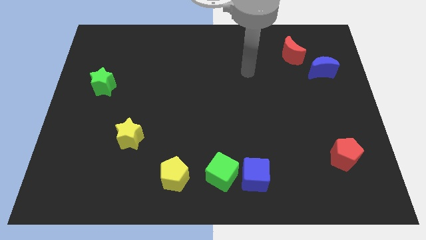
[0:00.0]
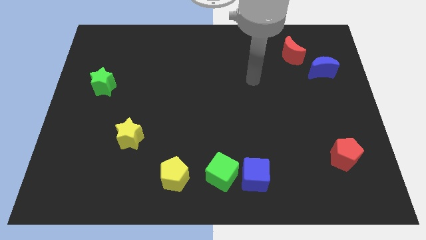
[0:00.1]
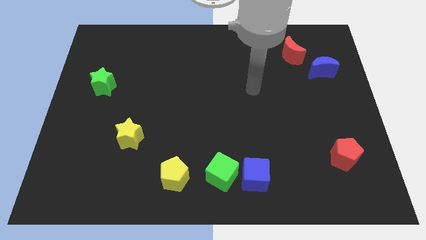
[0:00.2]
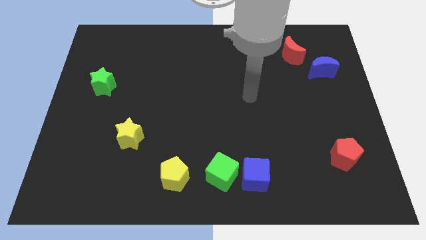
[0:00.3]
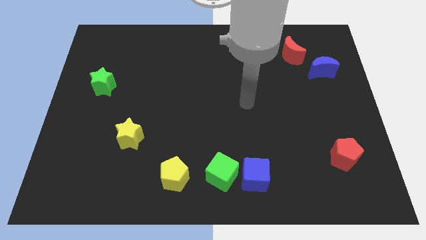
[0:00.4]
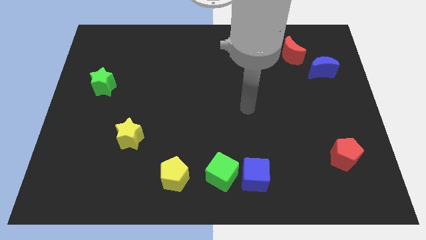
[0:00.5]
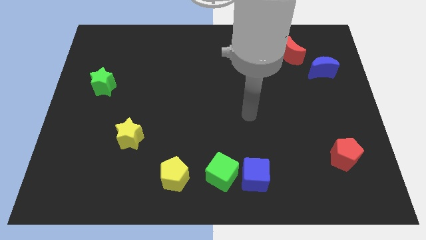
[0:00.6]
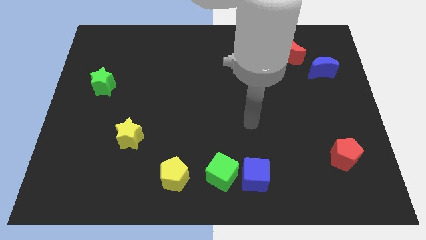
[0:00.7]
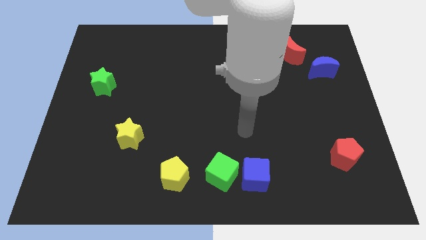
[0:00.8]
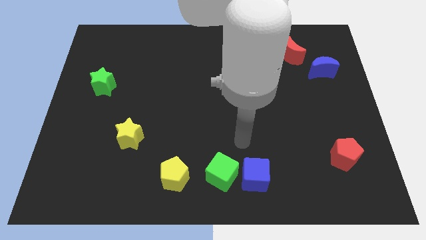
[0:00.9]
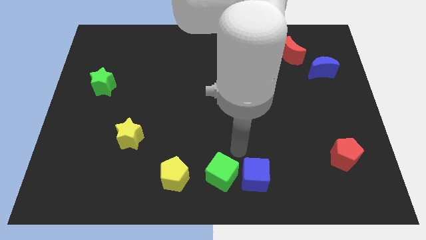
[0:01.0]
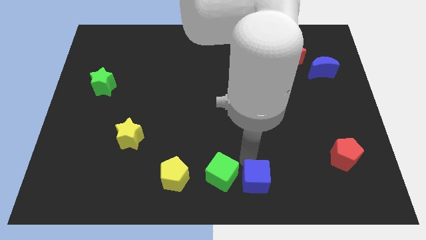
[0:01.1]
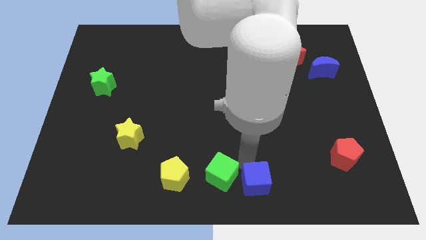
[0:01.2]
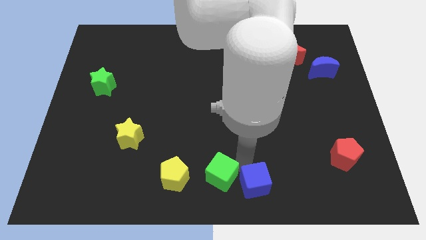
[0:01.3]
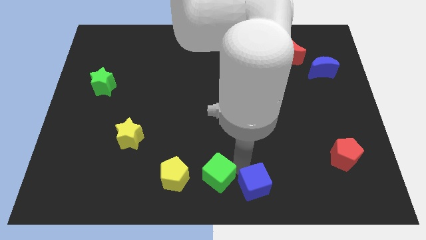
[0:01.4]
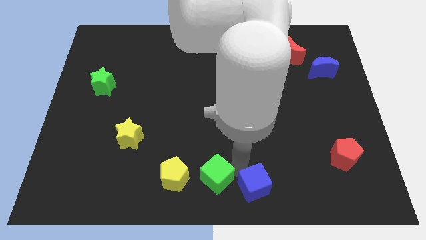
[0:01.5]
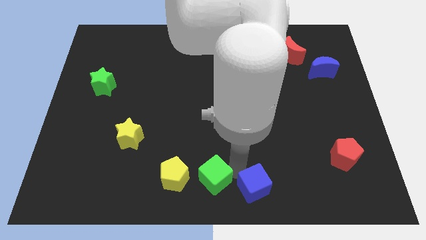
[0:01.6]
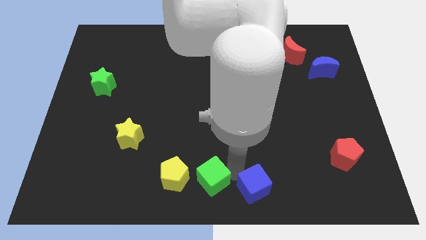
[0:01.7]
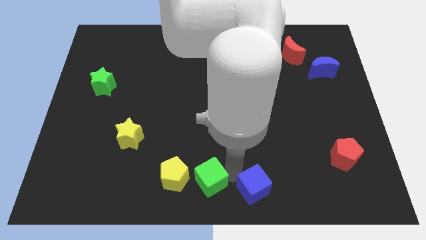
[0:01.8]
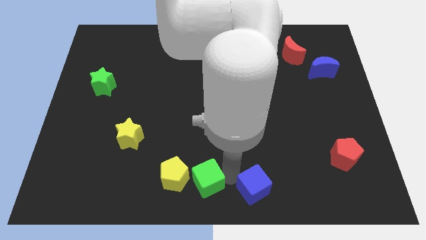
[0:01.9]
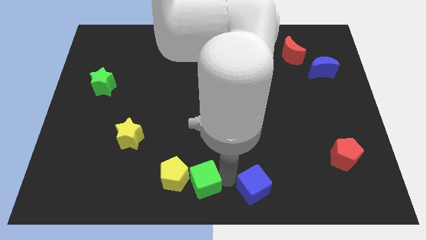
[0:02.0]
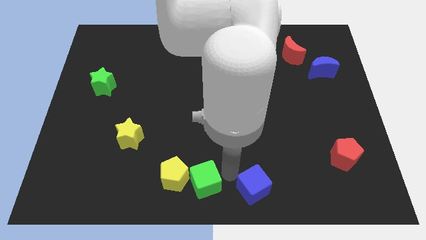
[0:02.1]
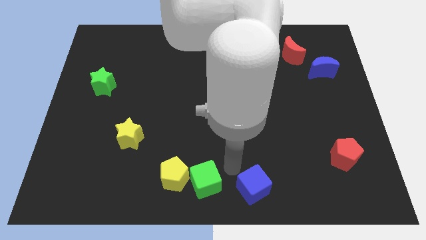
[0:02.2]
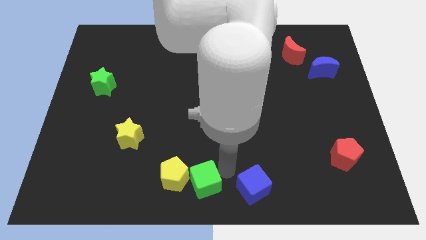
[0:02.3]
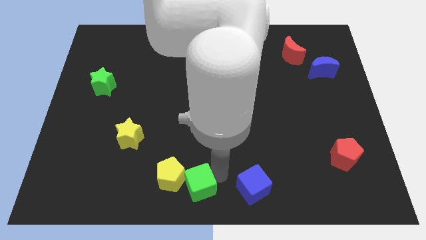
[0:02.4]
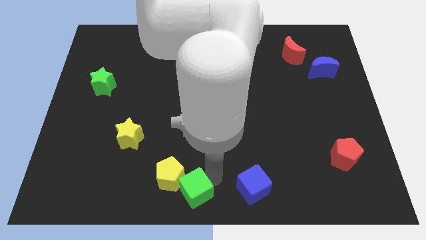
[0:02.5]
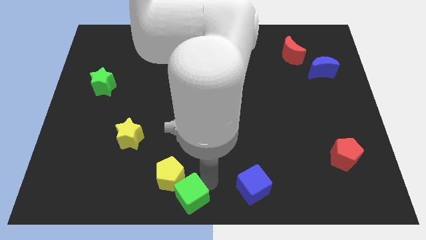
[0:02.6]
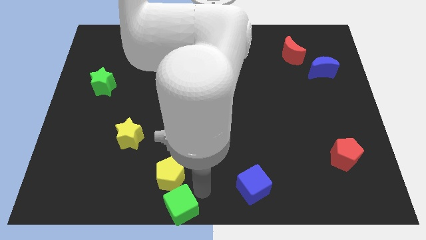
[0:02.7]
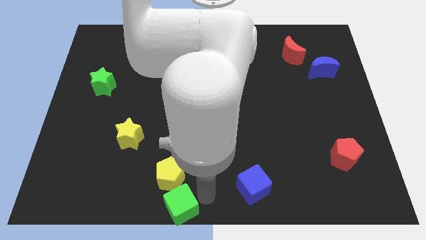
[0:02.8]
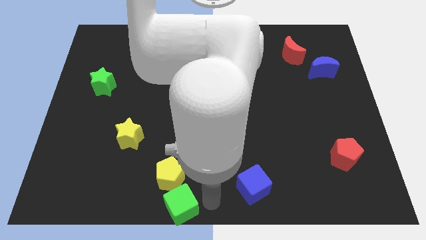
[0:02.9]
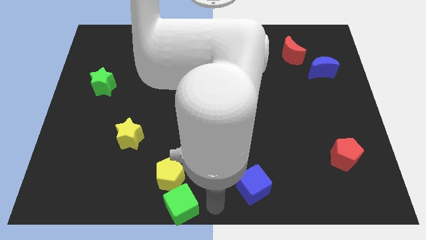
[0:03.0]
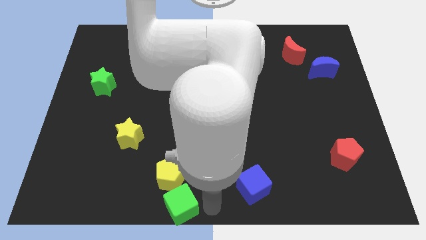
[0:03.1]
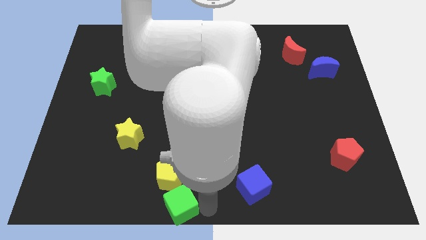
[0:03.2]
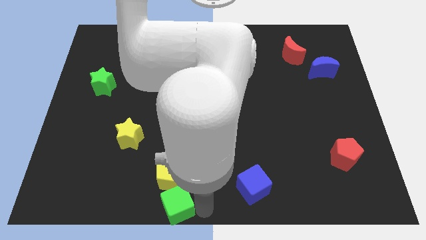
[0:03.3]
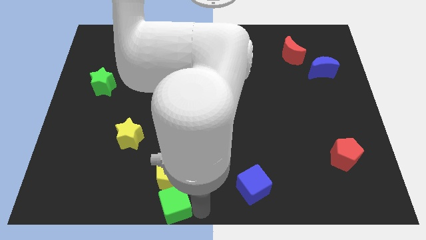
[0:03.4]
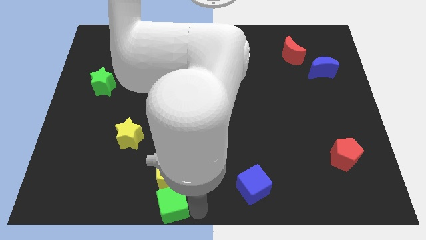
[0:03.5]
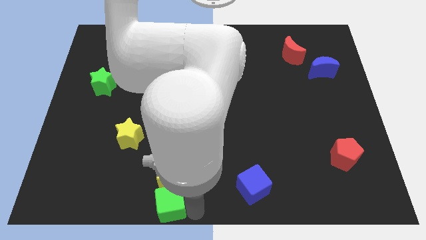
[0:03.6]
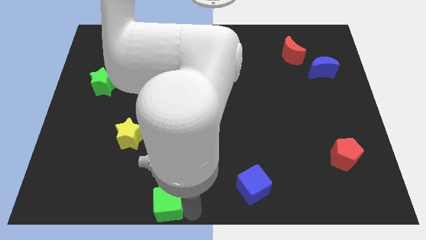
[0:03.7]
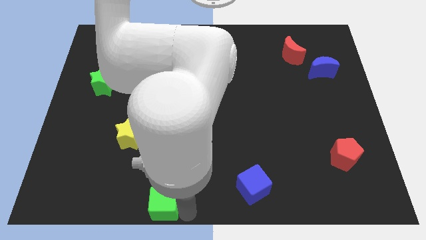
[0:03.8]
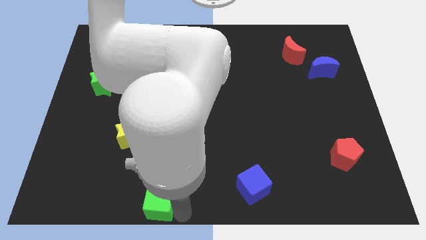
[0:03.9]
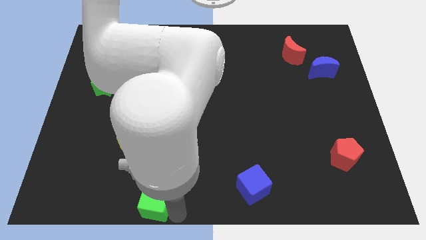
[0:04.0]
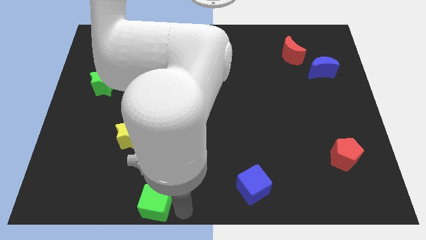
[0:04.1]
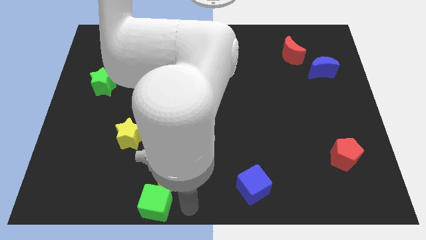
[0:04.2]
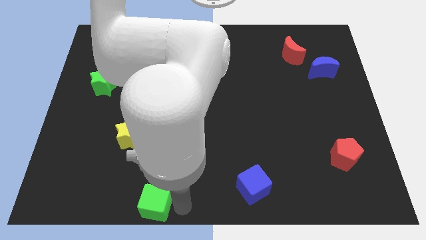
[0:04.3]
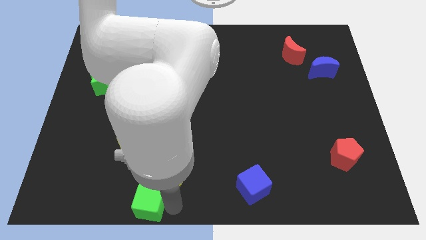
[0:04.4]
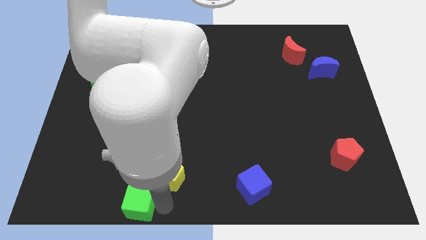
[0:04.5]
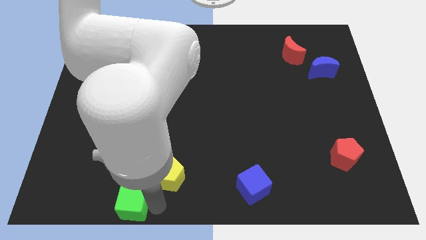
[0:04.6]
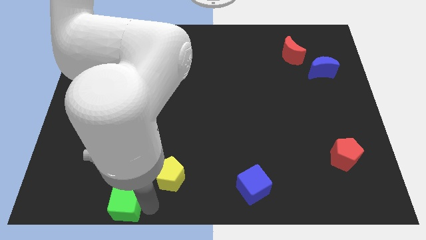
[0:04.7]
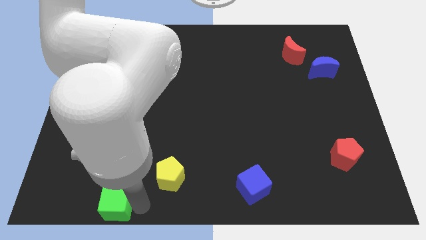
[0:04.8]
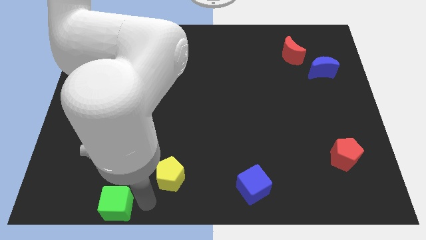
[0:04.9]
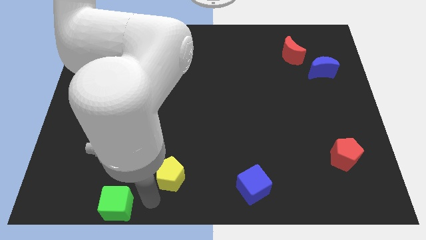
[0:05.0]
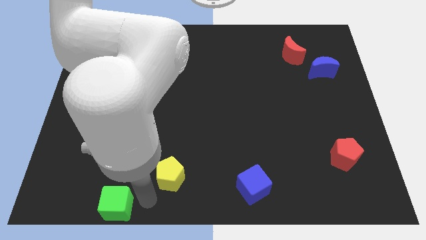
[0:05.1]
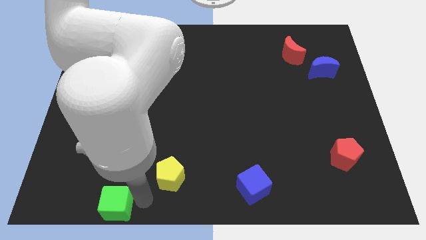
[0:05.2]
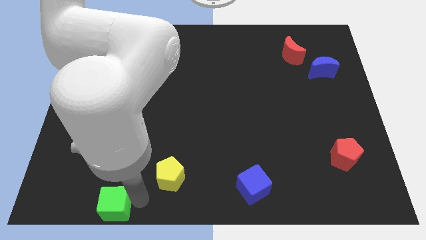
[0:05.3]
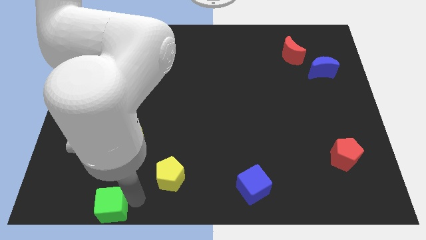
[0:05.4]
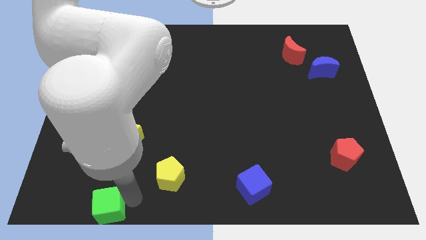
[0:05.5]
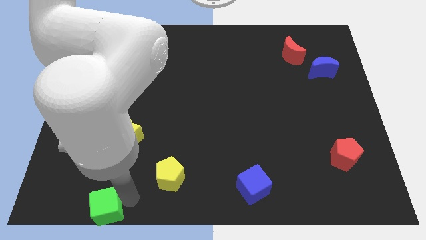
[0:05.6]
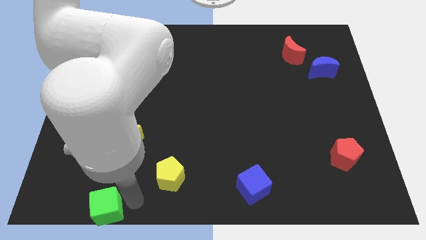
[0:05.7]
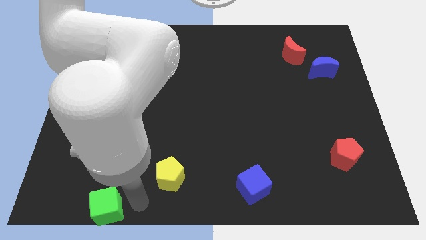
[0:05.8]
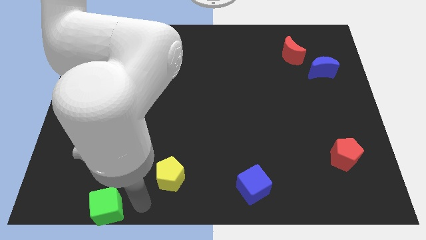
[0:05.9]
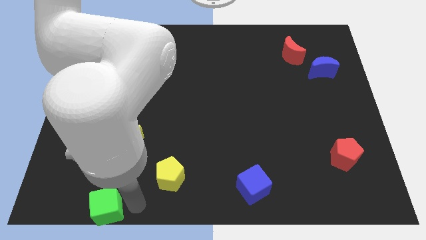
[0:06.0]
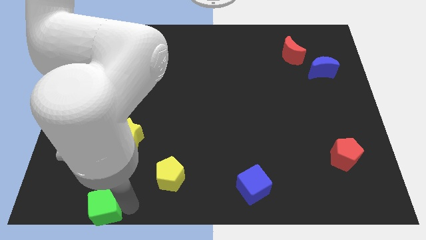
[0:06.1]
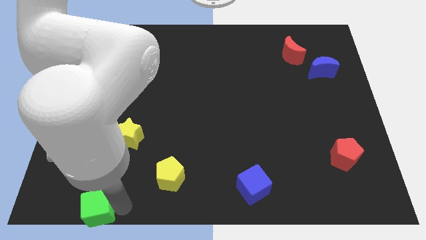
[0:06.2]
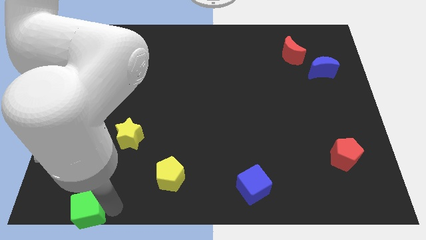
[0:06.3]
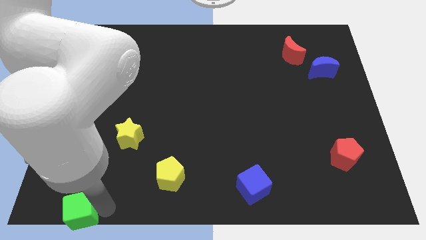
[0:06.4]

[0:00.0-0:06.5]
put the green cube to the bottom left of the board

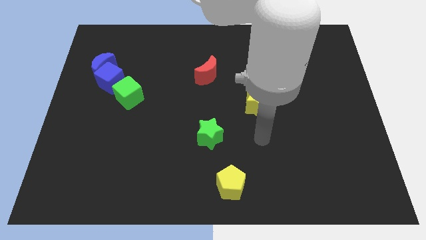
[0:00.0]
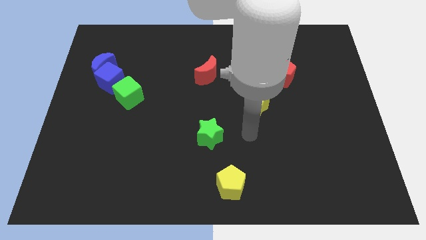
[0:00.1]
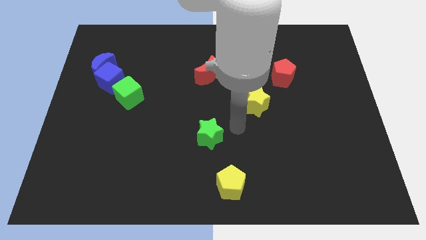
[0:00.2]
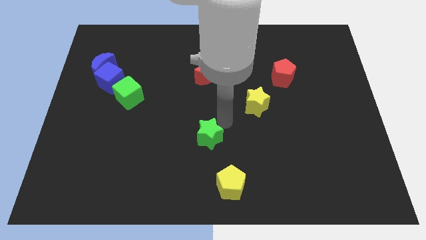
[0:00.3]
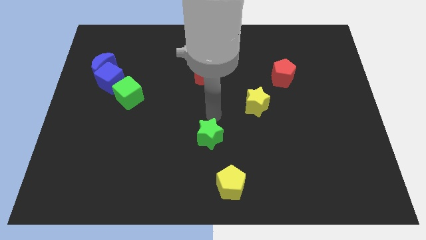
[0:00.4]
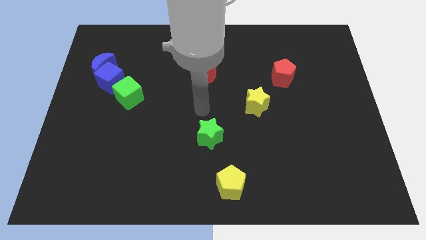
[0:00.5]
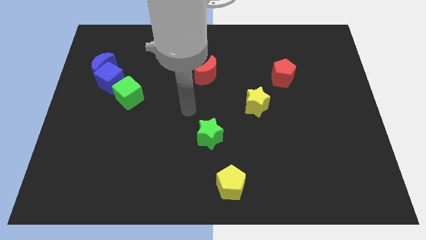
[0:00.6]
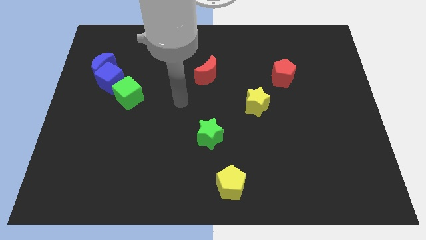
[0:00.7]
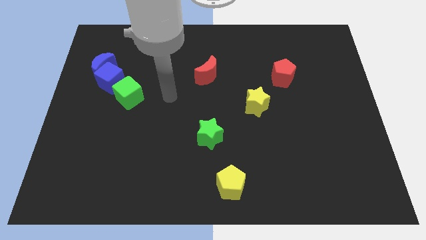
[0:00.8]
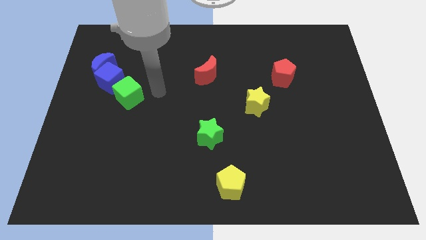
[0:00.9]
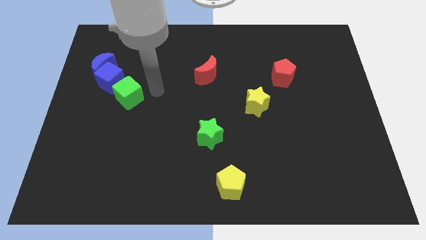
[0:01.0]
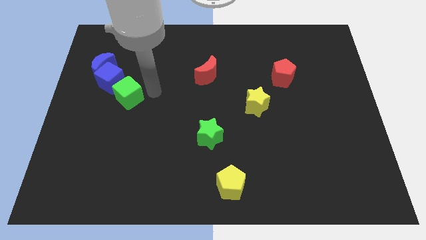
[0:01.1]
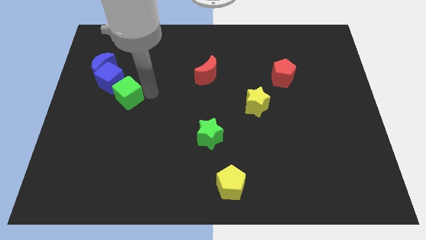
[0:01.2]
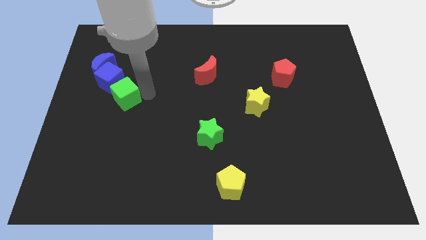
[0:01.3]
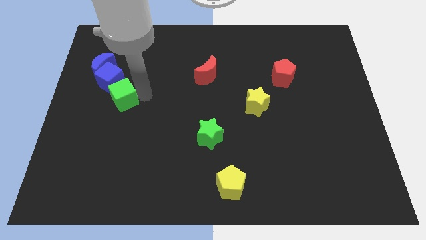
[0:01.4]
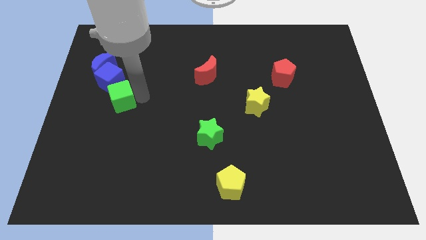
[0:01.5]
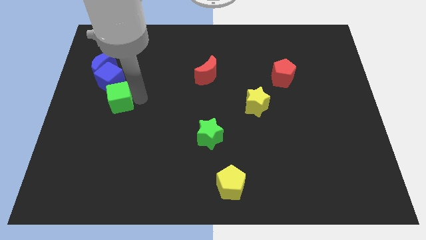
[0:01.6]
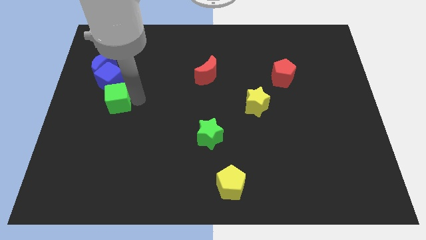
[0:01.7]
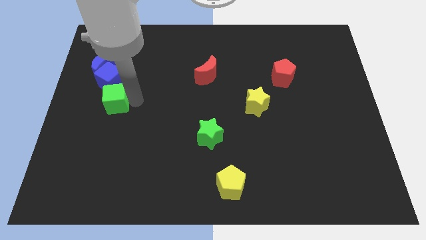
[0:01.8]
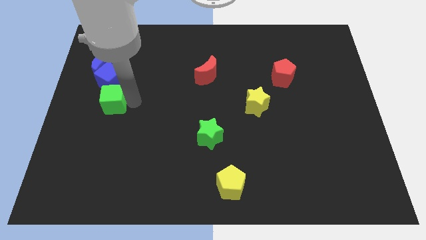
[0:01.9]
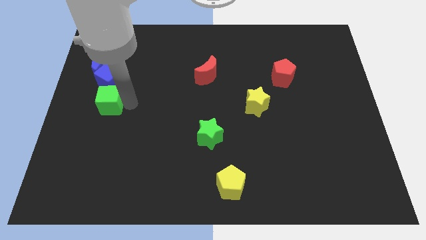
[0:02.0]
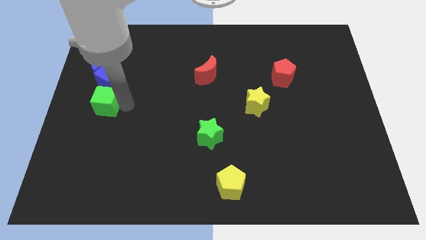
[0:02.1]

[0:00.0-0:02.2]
push the green cube to the left side of the board
